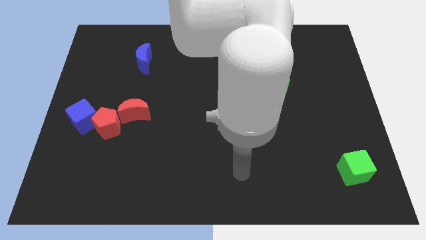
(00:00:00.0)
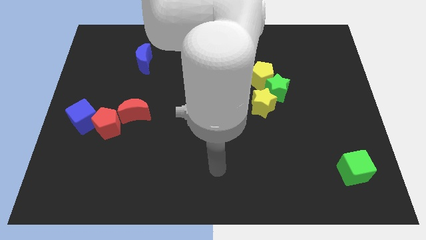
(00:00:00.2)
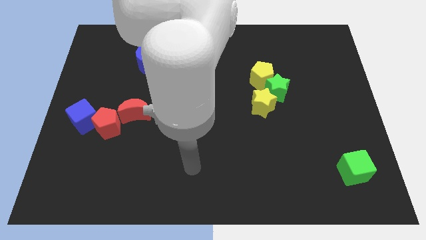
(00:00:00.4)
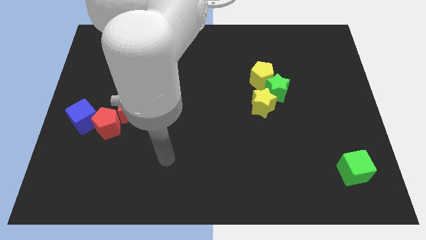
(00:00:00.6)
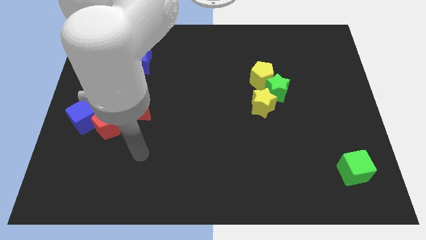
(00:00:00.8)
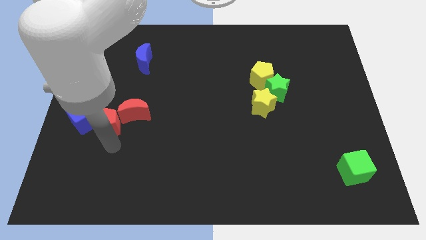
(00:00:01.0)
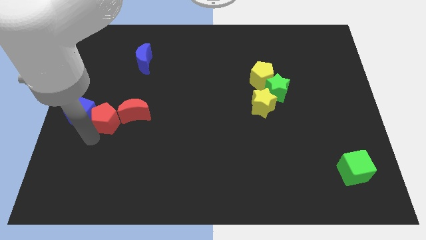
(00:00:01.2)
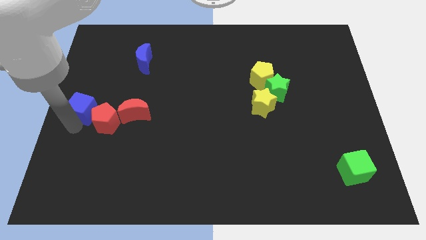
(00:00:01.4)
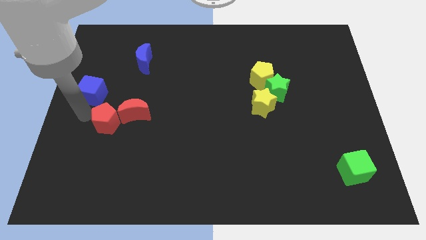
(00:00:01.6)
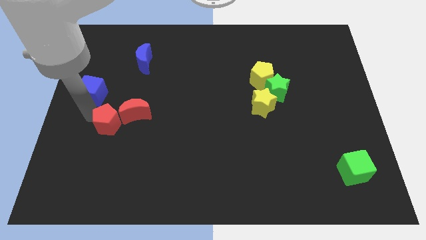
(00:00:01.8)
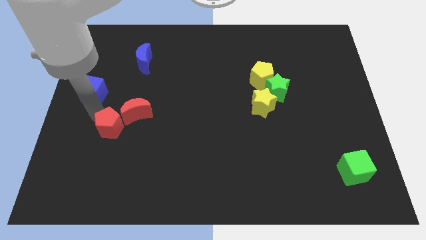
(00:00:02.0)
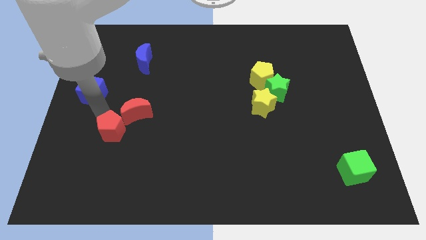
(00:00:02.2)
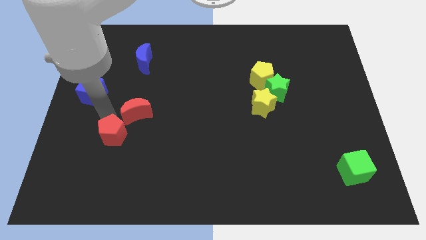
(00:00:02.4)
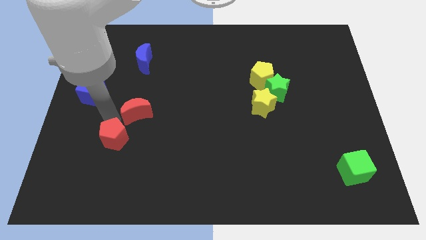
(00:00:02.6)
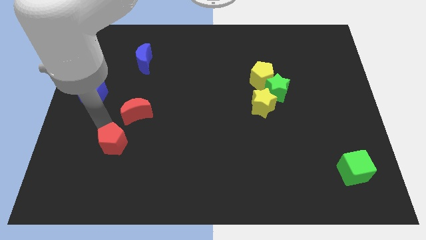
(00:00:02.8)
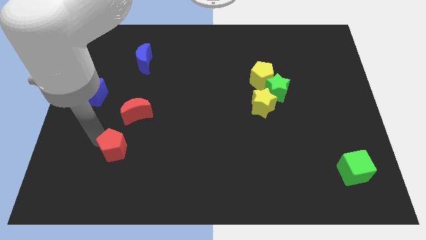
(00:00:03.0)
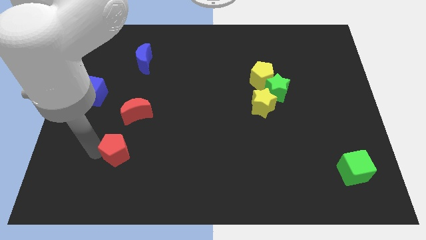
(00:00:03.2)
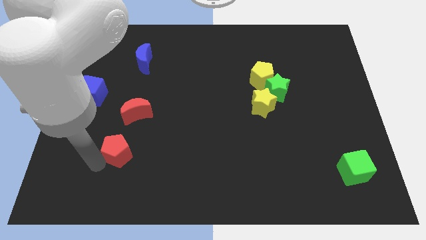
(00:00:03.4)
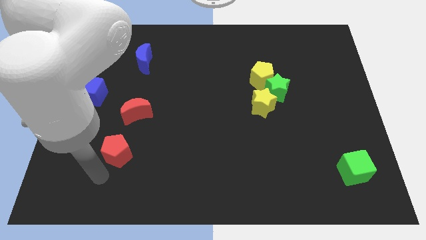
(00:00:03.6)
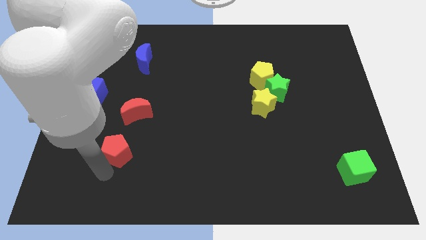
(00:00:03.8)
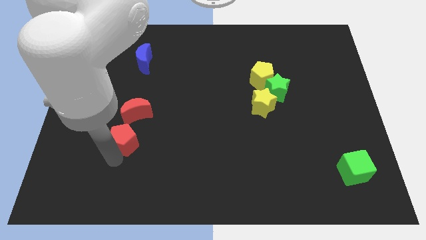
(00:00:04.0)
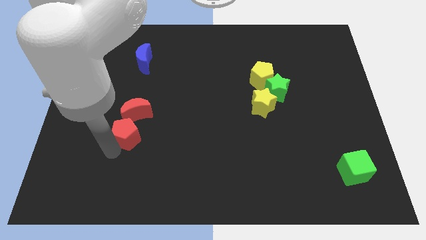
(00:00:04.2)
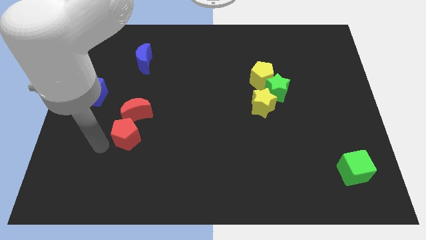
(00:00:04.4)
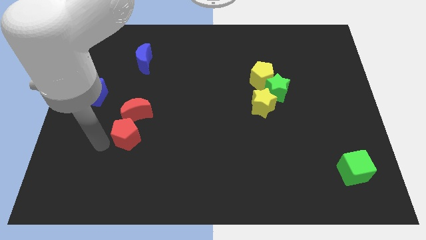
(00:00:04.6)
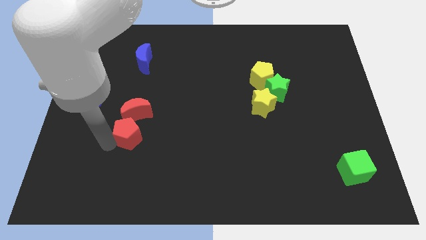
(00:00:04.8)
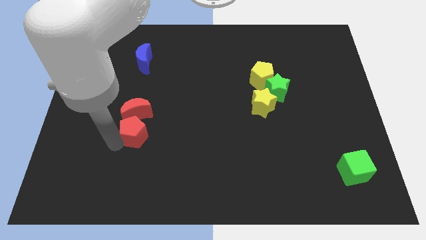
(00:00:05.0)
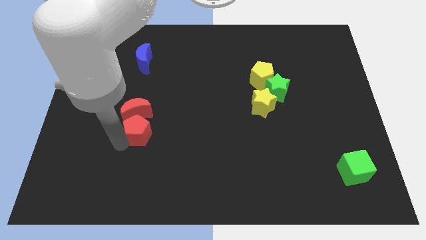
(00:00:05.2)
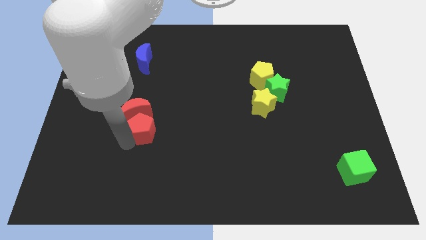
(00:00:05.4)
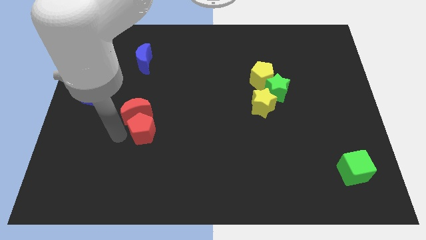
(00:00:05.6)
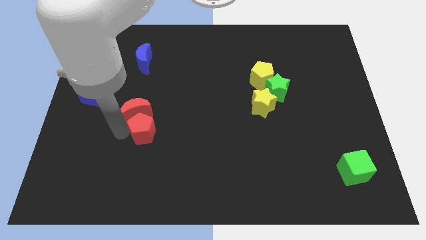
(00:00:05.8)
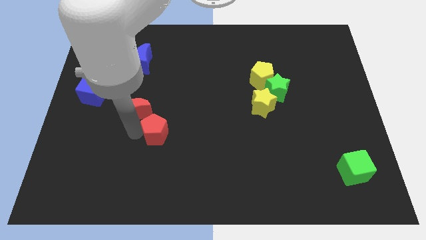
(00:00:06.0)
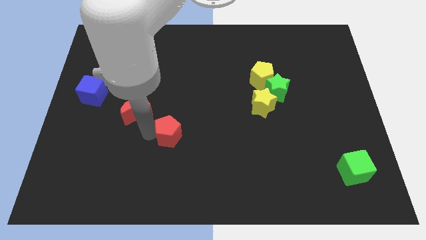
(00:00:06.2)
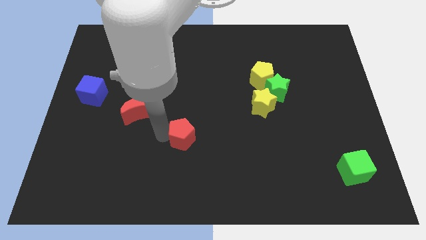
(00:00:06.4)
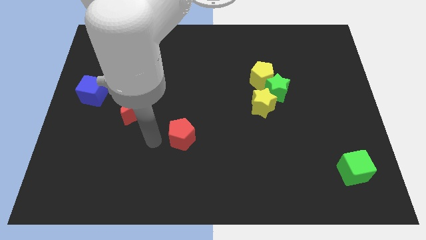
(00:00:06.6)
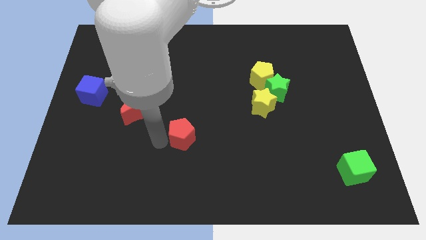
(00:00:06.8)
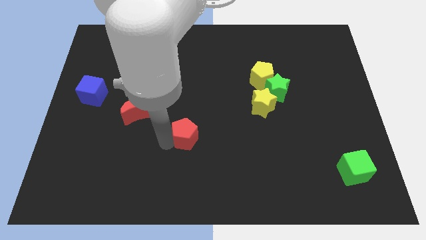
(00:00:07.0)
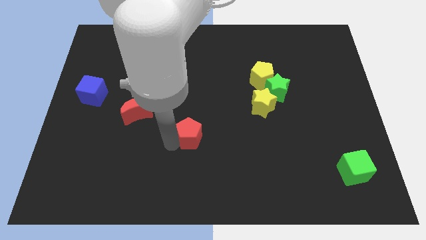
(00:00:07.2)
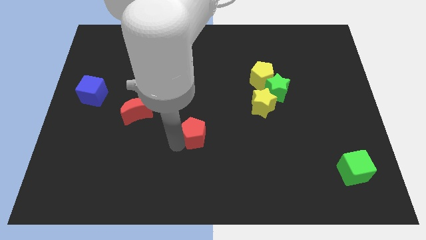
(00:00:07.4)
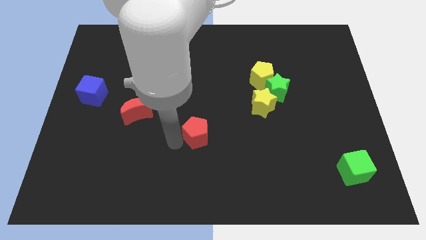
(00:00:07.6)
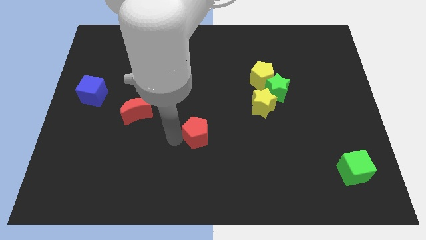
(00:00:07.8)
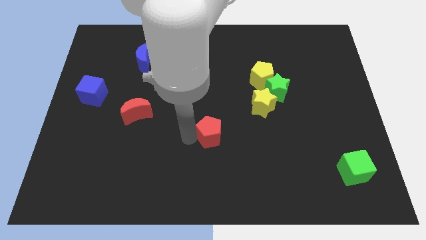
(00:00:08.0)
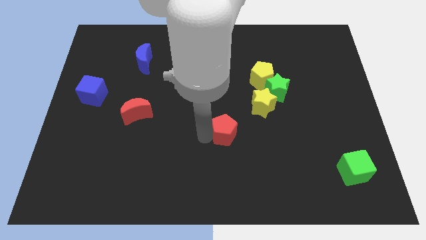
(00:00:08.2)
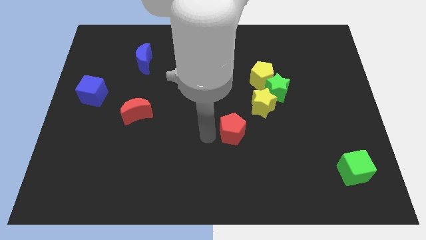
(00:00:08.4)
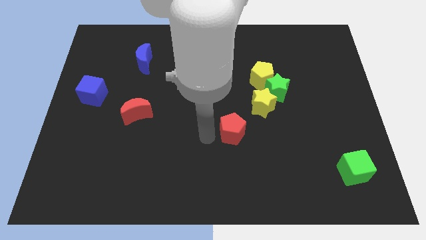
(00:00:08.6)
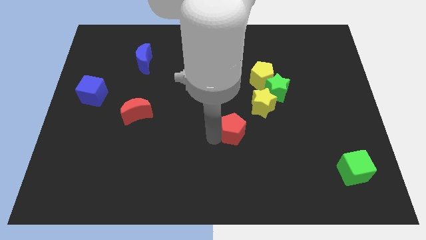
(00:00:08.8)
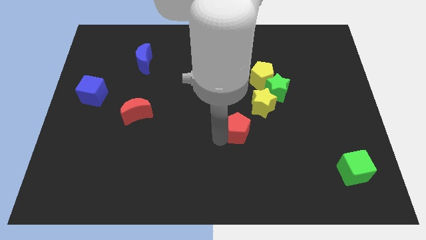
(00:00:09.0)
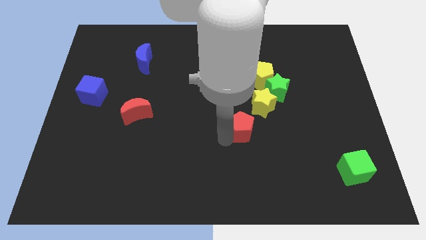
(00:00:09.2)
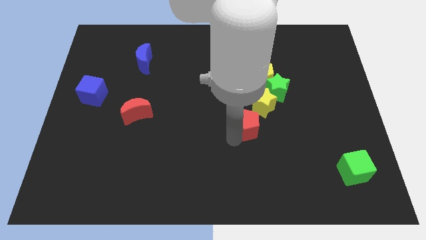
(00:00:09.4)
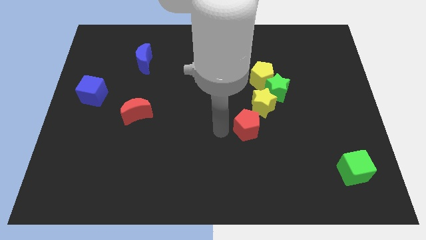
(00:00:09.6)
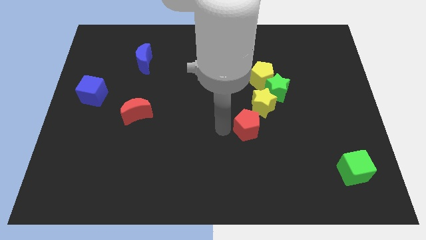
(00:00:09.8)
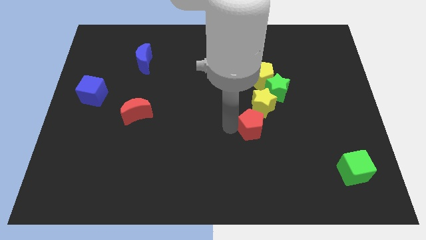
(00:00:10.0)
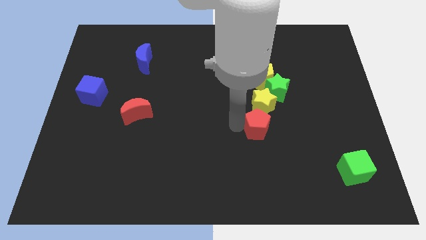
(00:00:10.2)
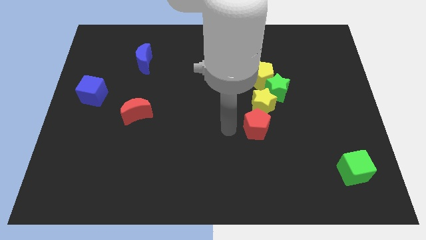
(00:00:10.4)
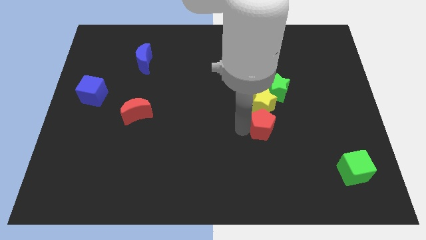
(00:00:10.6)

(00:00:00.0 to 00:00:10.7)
slide the red pentagon to the bottom side of the green star

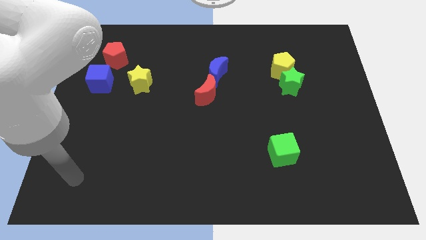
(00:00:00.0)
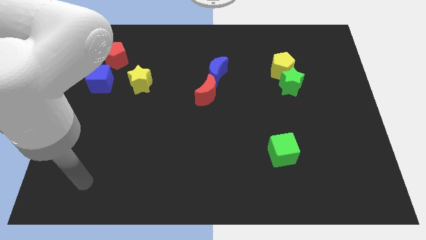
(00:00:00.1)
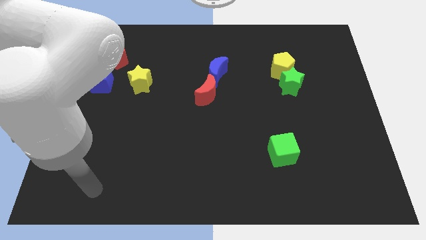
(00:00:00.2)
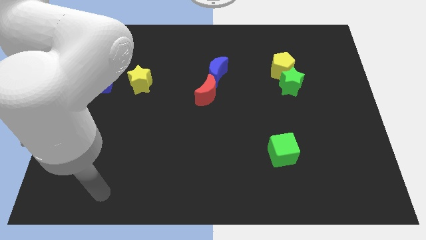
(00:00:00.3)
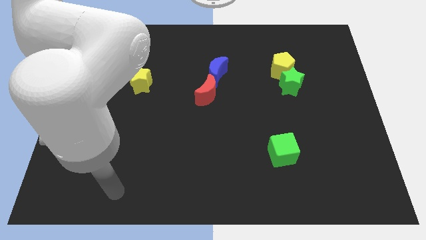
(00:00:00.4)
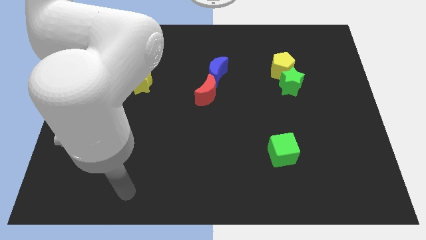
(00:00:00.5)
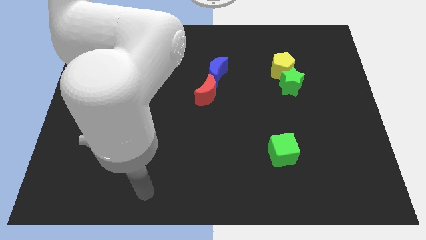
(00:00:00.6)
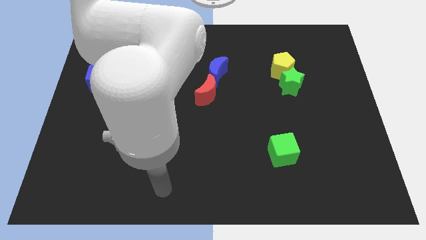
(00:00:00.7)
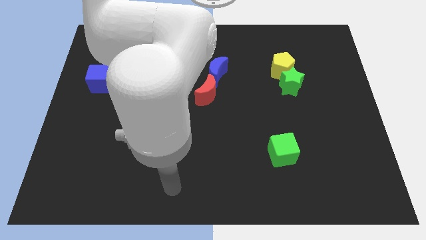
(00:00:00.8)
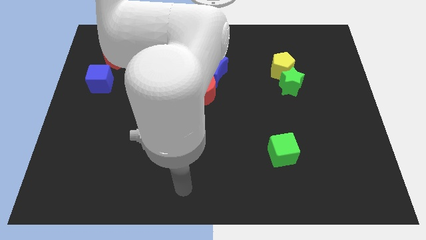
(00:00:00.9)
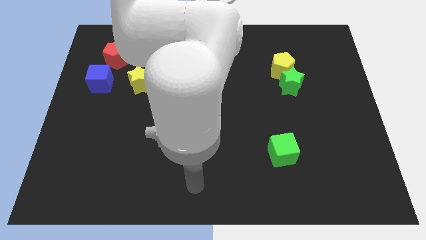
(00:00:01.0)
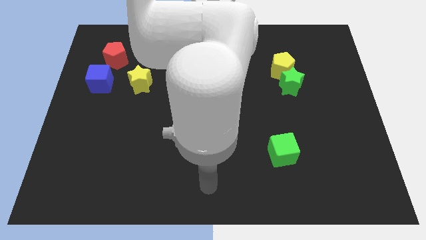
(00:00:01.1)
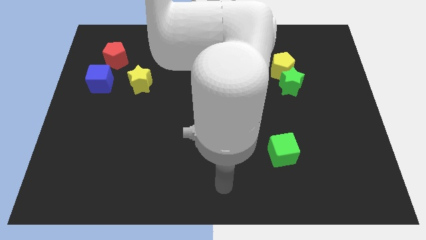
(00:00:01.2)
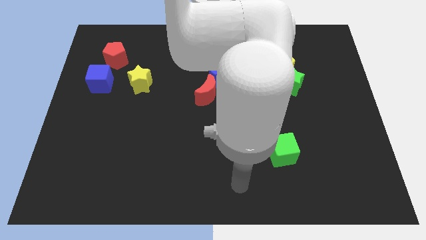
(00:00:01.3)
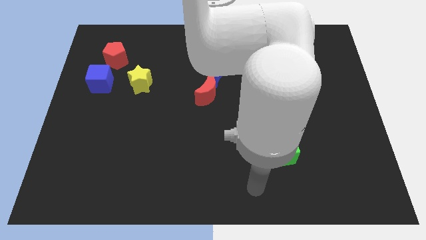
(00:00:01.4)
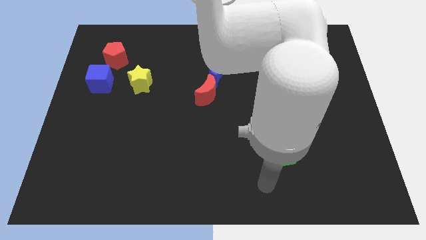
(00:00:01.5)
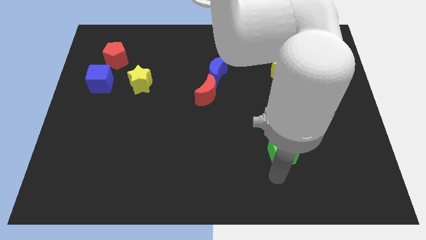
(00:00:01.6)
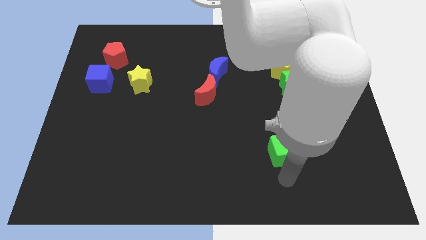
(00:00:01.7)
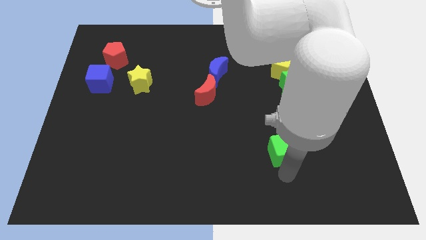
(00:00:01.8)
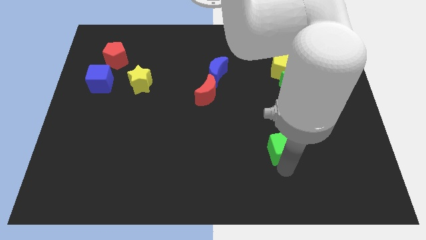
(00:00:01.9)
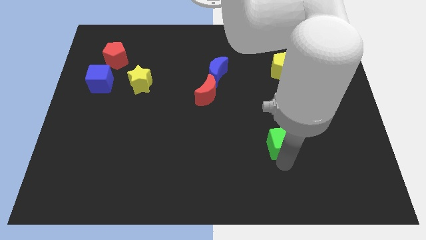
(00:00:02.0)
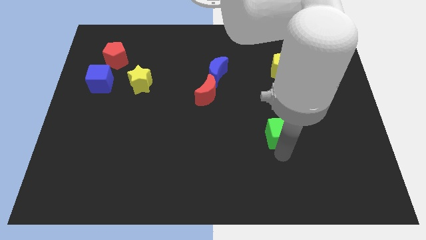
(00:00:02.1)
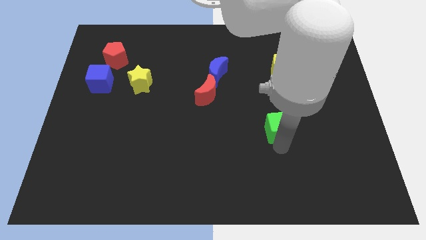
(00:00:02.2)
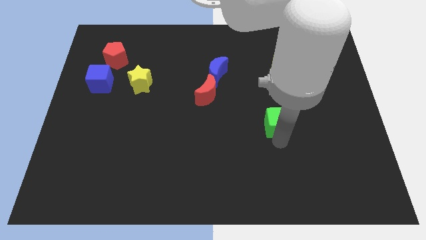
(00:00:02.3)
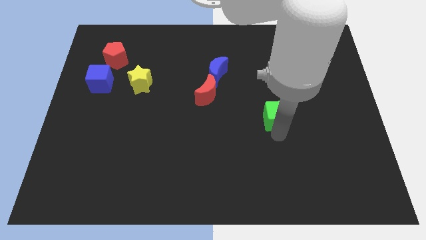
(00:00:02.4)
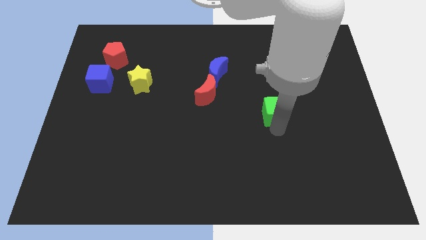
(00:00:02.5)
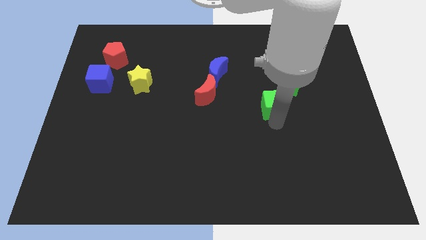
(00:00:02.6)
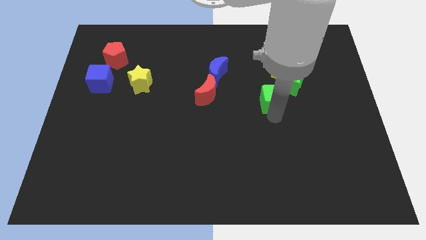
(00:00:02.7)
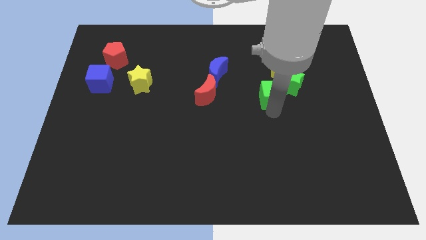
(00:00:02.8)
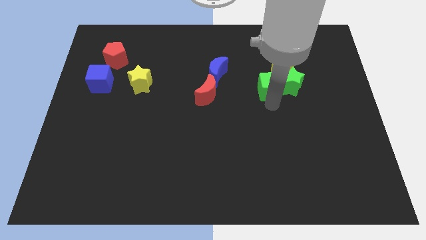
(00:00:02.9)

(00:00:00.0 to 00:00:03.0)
slide the green cube diagonally up and to the left of the green star
